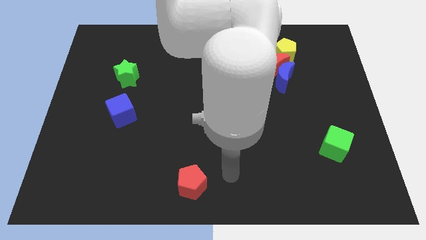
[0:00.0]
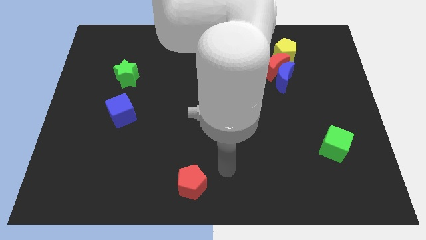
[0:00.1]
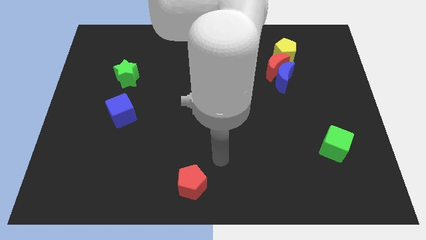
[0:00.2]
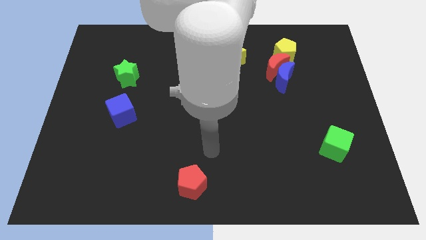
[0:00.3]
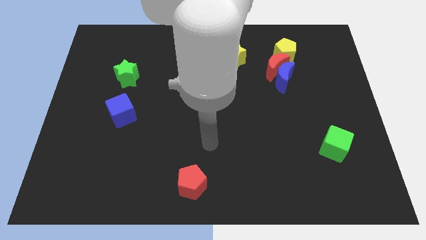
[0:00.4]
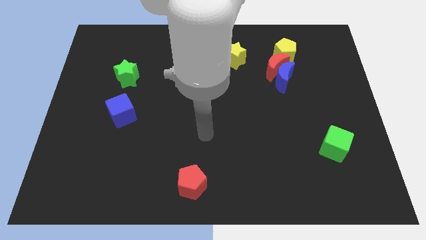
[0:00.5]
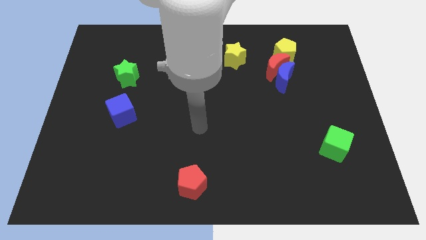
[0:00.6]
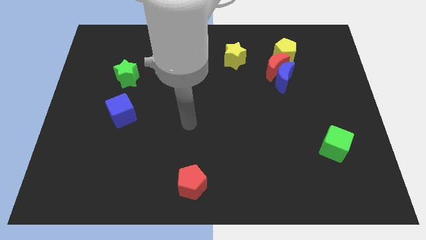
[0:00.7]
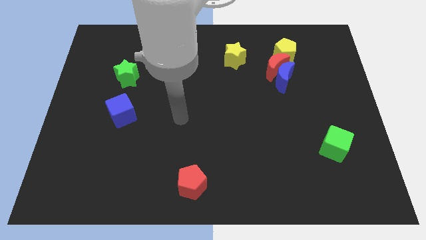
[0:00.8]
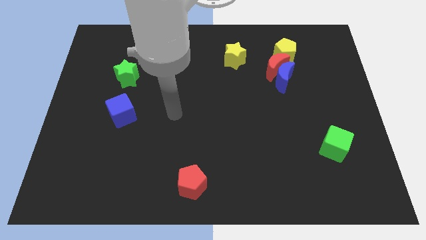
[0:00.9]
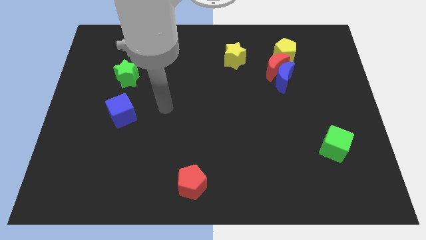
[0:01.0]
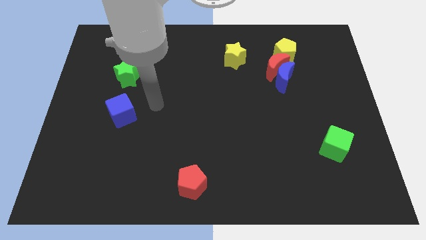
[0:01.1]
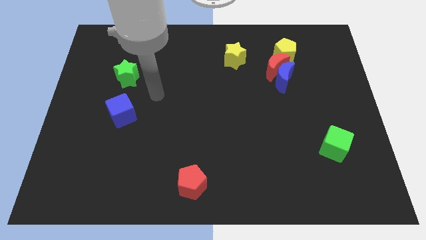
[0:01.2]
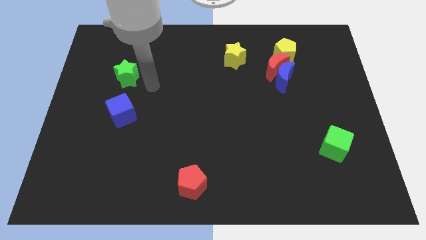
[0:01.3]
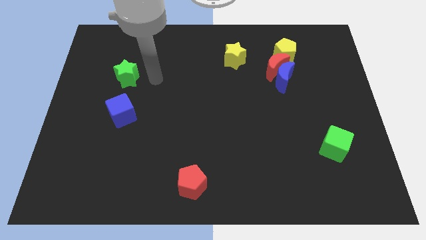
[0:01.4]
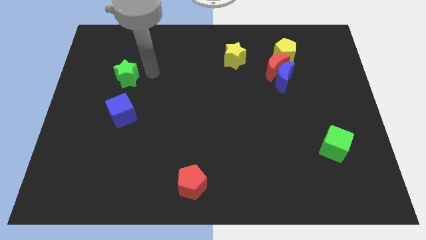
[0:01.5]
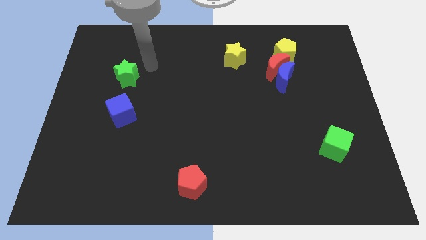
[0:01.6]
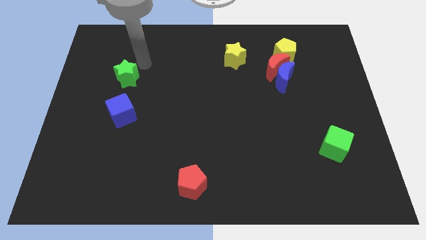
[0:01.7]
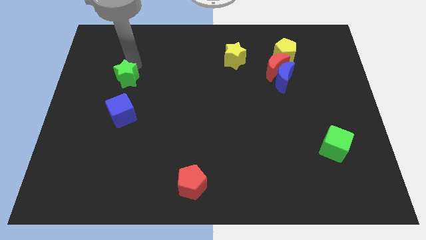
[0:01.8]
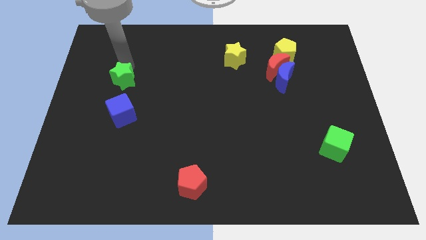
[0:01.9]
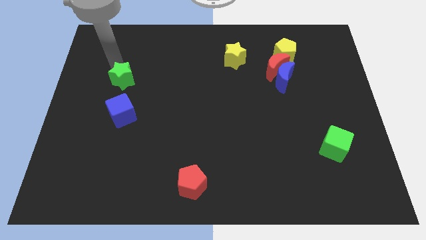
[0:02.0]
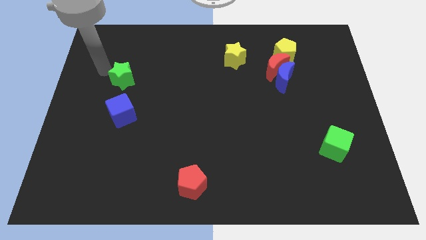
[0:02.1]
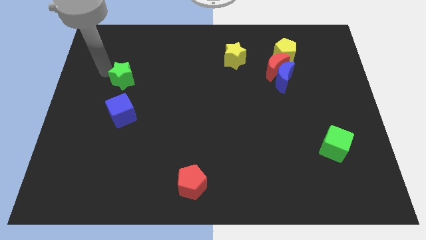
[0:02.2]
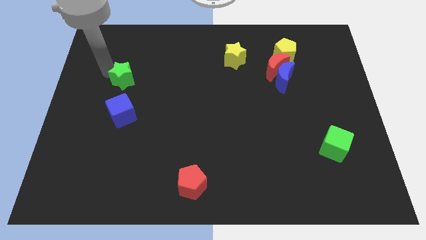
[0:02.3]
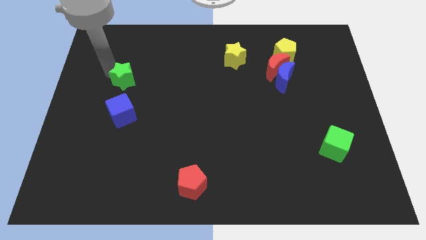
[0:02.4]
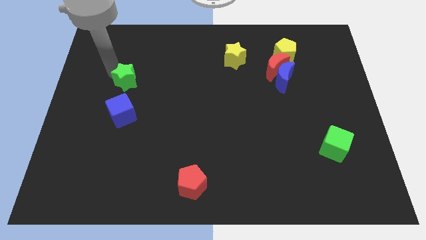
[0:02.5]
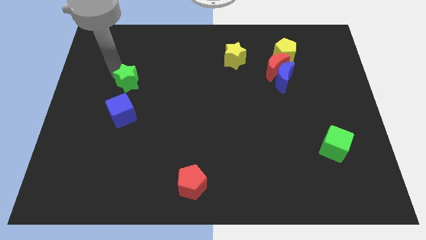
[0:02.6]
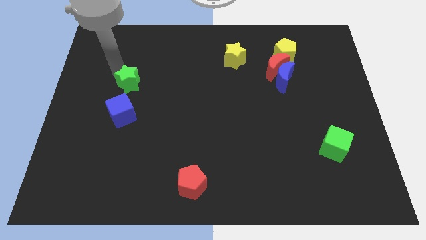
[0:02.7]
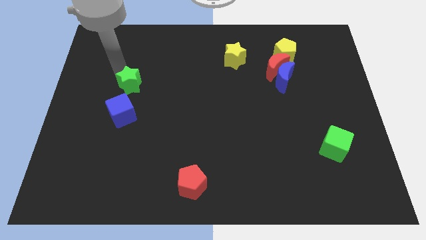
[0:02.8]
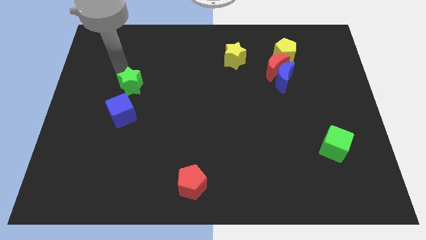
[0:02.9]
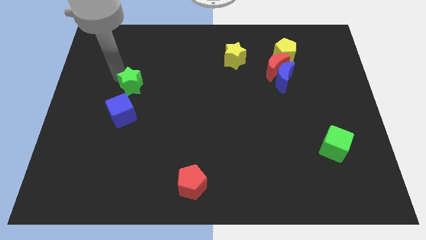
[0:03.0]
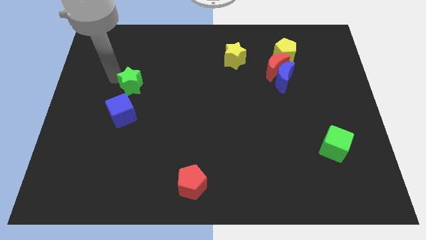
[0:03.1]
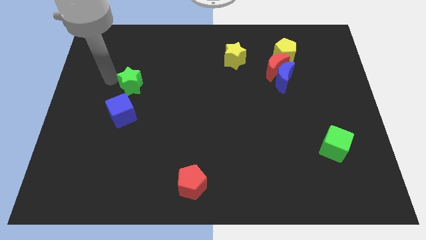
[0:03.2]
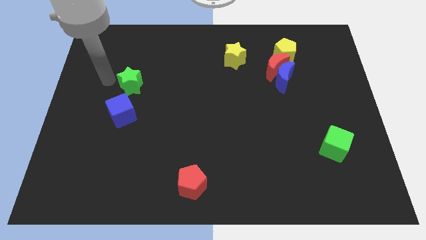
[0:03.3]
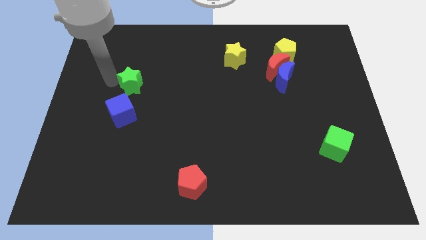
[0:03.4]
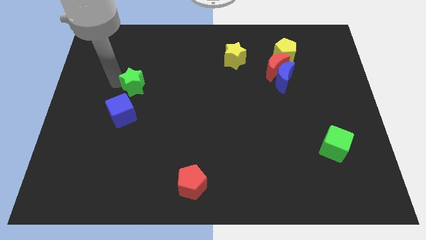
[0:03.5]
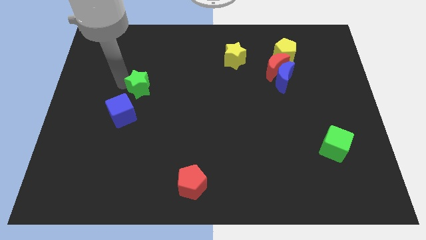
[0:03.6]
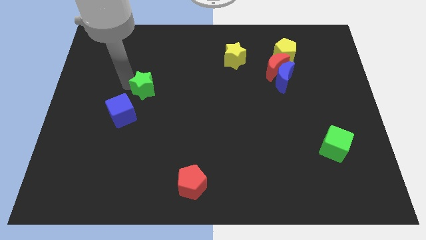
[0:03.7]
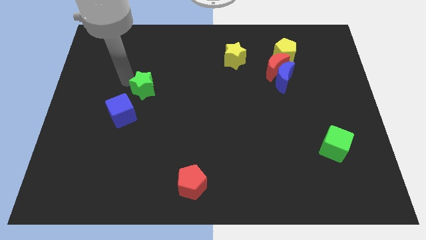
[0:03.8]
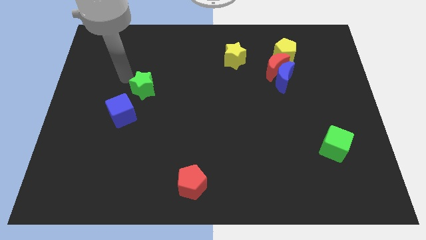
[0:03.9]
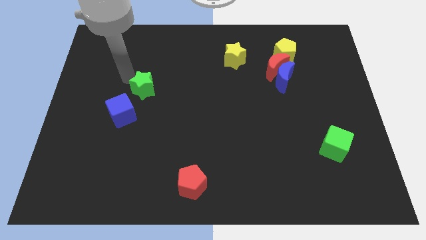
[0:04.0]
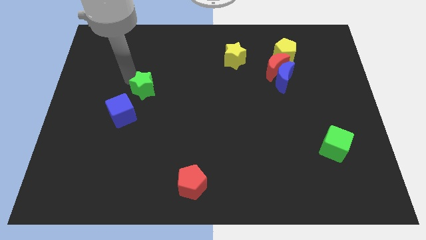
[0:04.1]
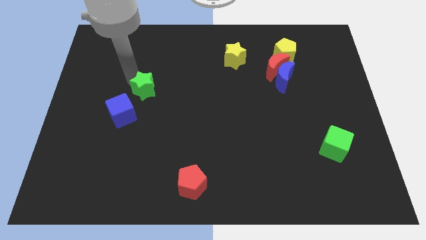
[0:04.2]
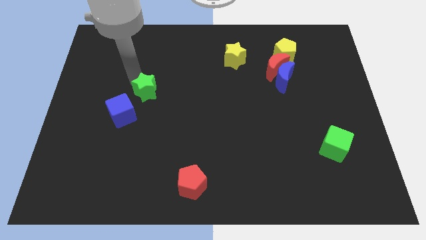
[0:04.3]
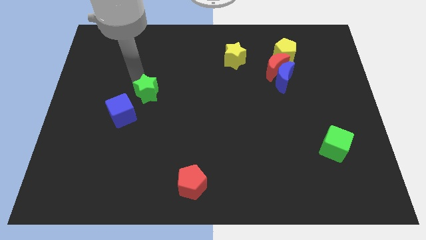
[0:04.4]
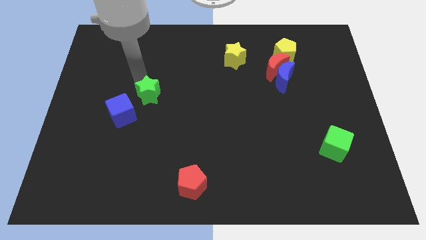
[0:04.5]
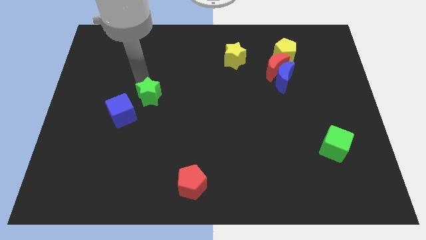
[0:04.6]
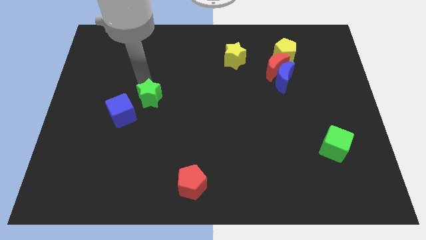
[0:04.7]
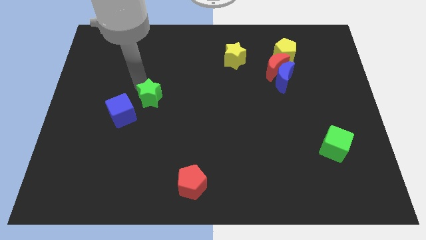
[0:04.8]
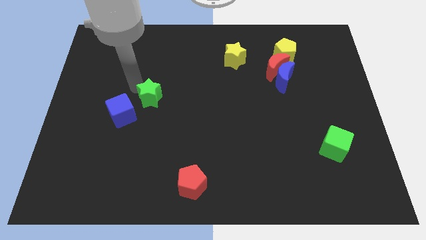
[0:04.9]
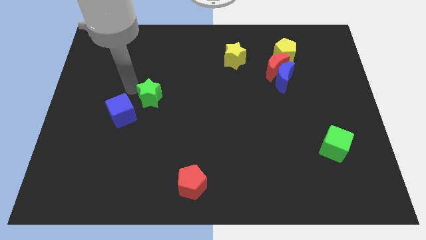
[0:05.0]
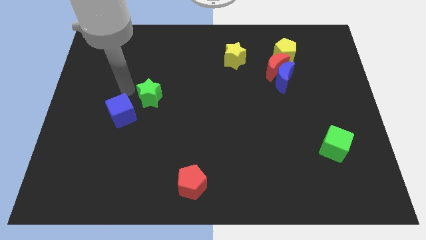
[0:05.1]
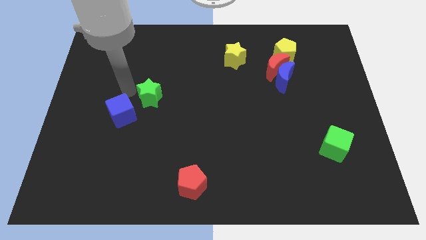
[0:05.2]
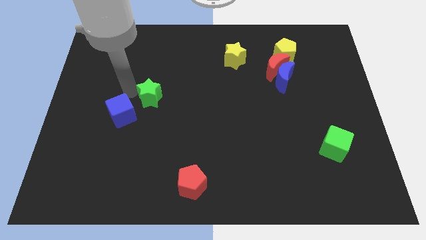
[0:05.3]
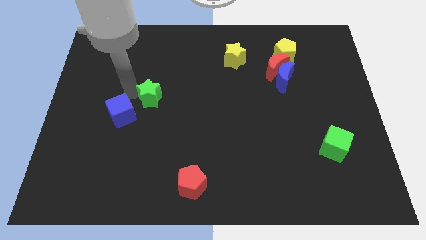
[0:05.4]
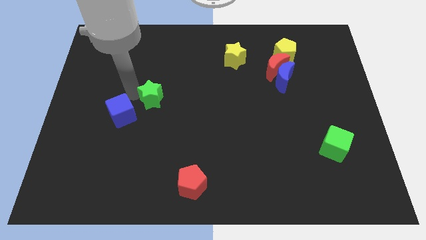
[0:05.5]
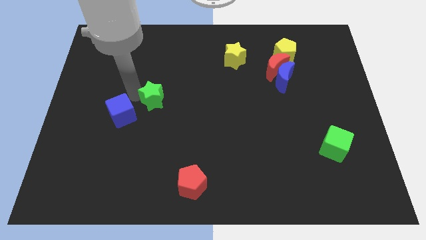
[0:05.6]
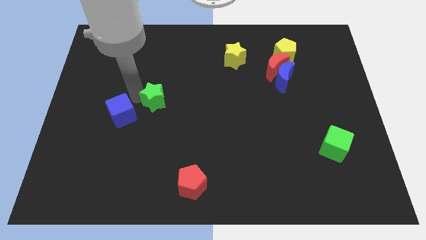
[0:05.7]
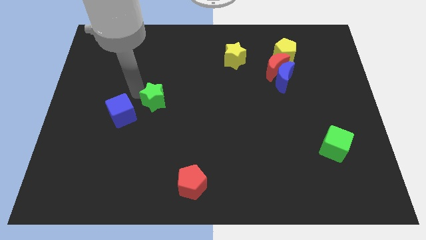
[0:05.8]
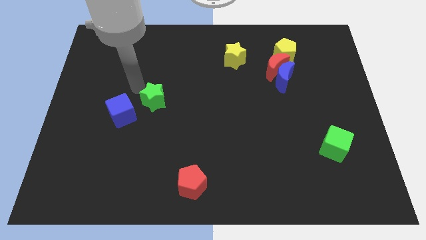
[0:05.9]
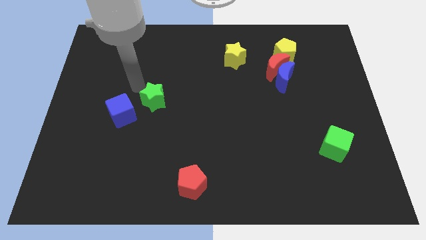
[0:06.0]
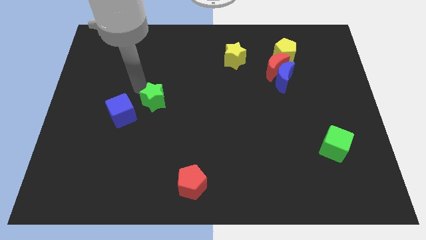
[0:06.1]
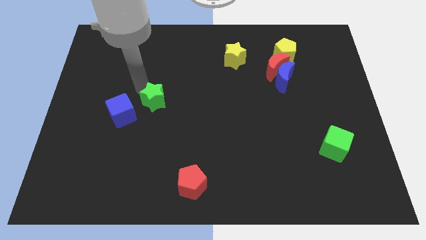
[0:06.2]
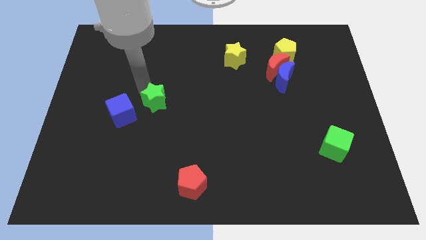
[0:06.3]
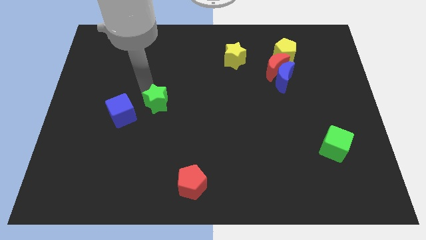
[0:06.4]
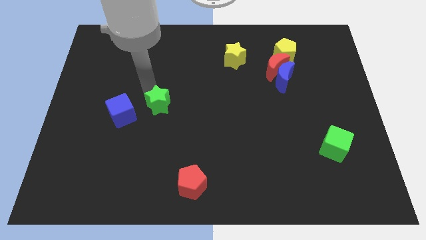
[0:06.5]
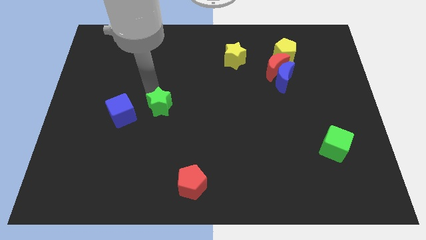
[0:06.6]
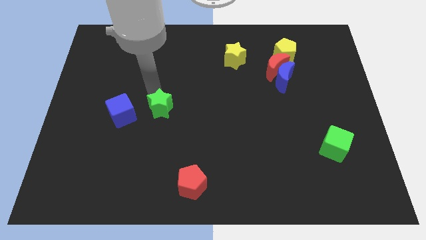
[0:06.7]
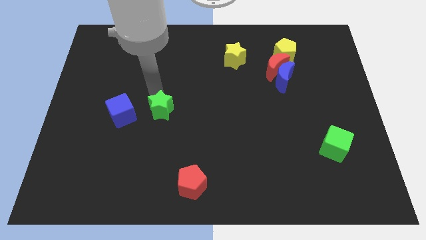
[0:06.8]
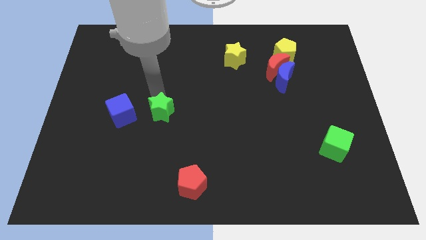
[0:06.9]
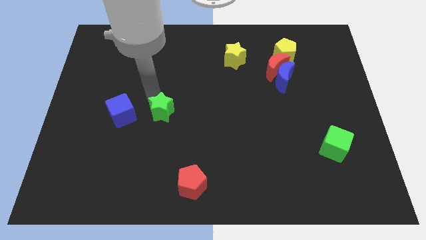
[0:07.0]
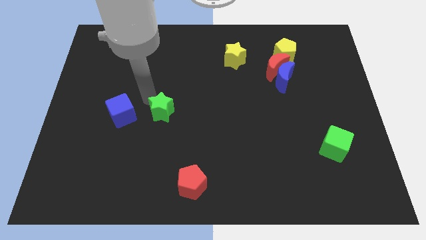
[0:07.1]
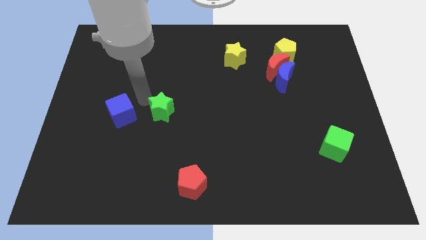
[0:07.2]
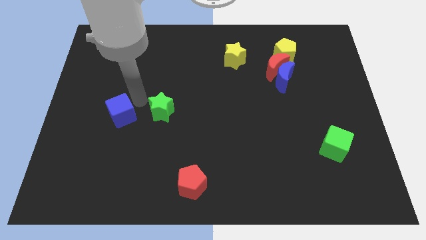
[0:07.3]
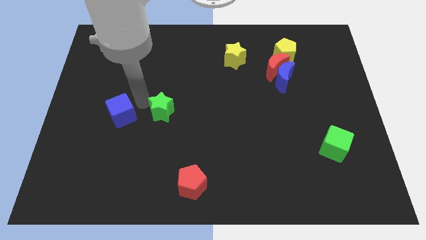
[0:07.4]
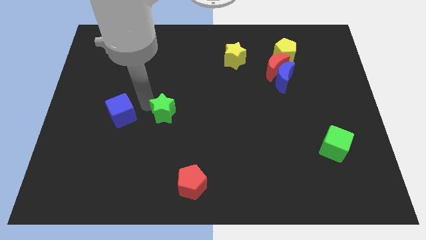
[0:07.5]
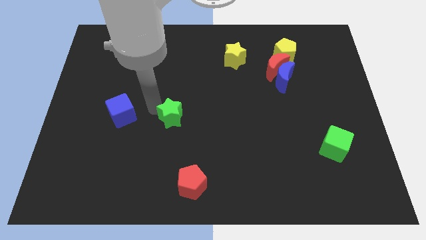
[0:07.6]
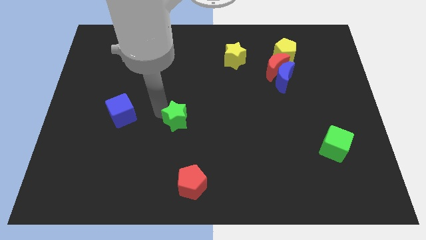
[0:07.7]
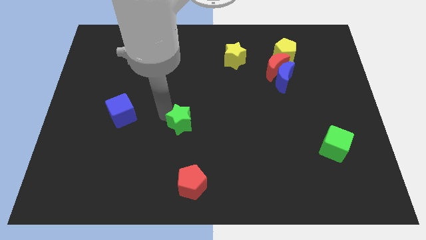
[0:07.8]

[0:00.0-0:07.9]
slide the green star down and then to the right

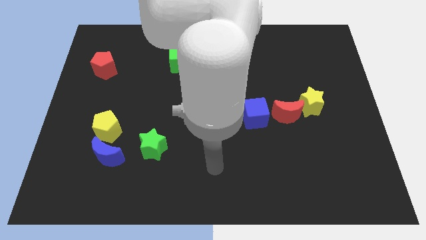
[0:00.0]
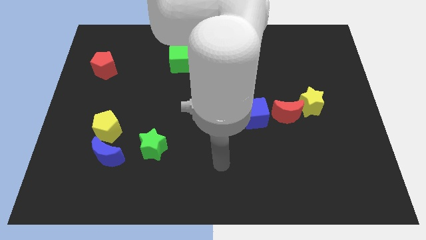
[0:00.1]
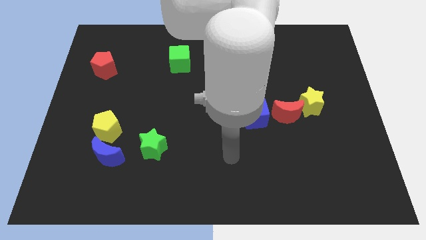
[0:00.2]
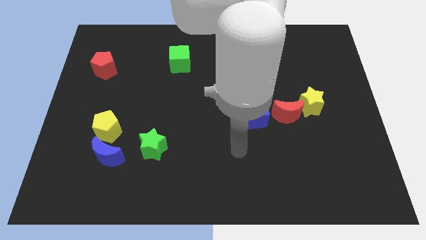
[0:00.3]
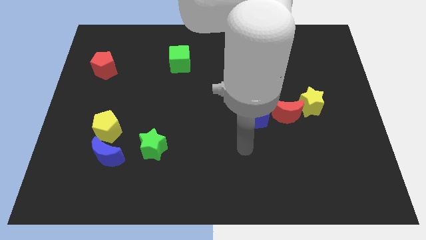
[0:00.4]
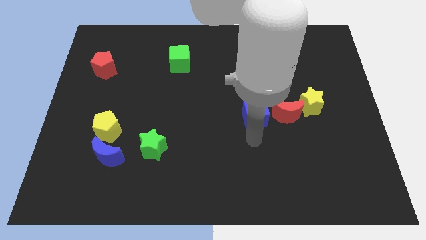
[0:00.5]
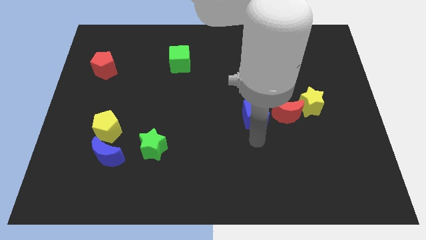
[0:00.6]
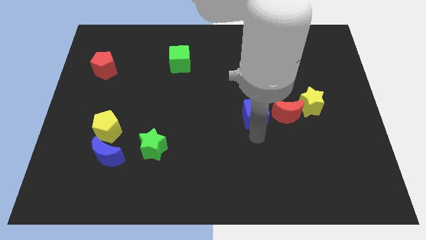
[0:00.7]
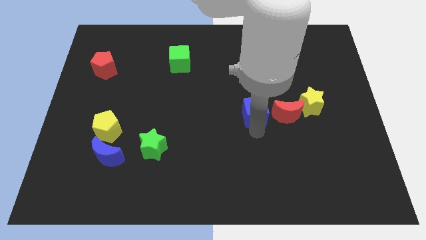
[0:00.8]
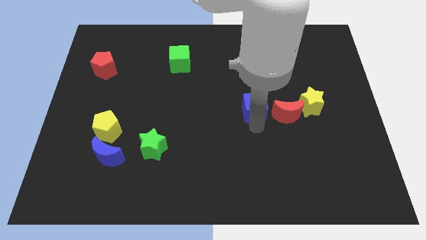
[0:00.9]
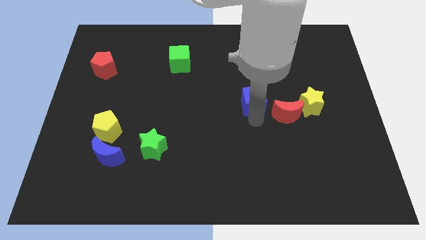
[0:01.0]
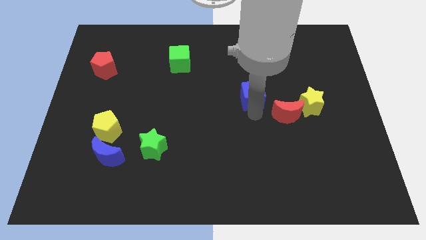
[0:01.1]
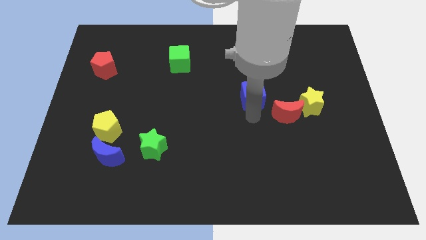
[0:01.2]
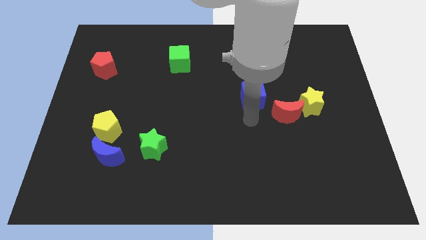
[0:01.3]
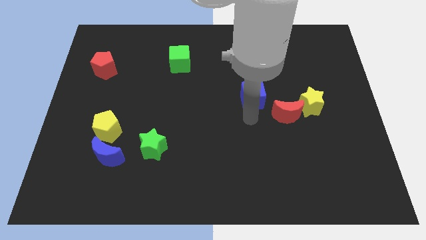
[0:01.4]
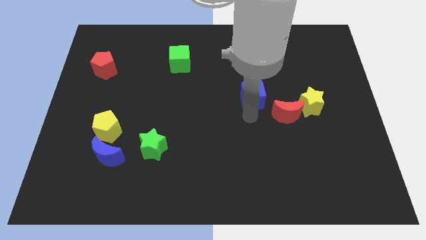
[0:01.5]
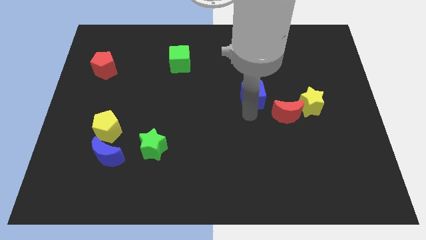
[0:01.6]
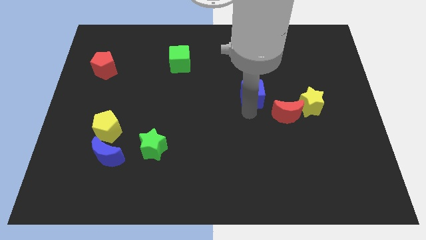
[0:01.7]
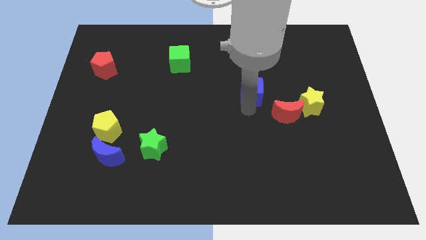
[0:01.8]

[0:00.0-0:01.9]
slightly slide the blue cube upwards
